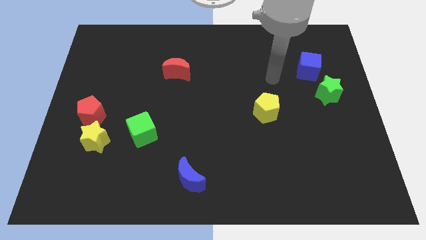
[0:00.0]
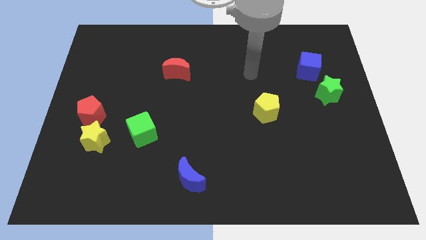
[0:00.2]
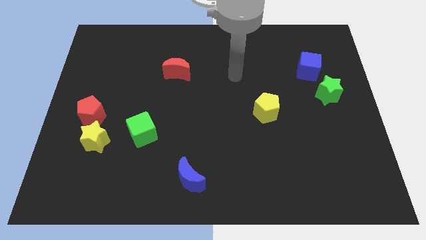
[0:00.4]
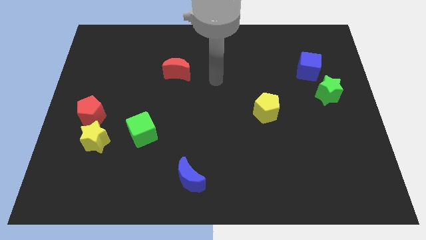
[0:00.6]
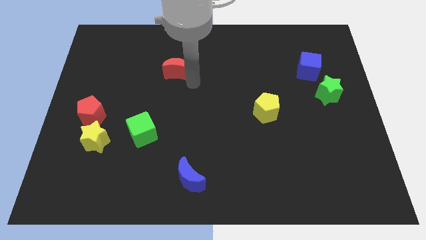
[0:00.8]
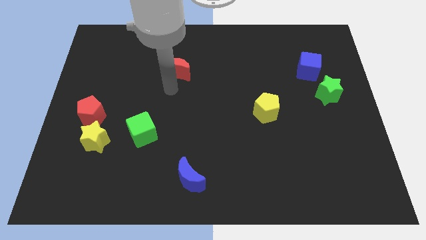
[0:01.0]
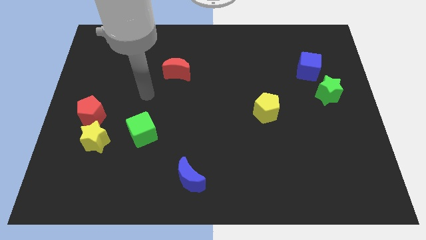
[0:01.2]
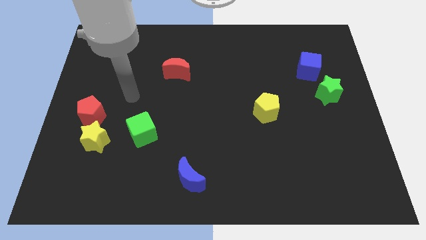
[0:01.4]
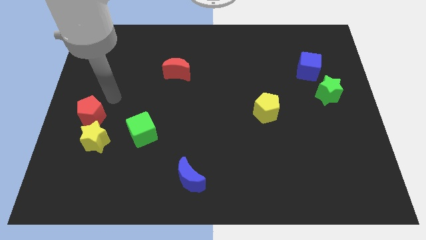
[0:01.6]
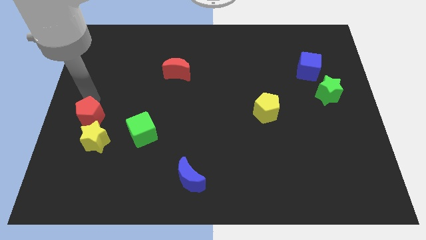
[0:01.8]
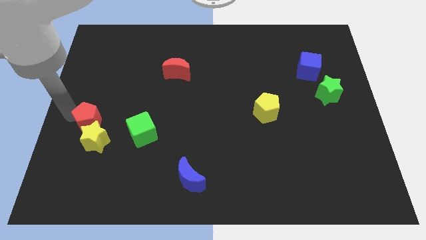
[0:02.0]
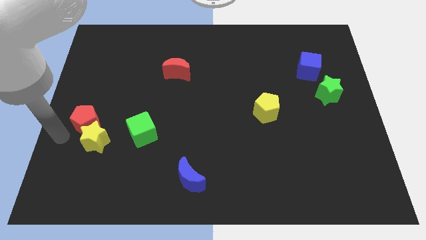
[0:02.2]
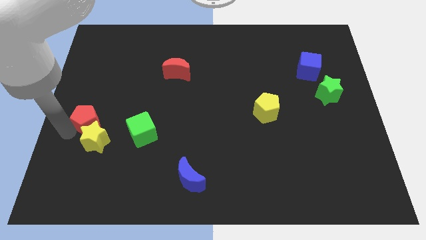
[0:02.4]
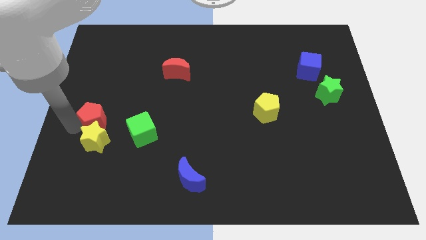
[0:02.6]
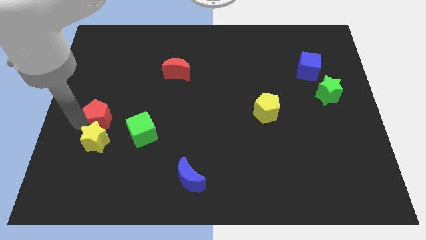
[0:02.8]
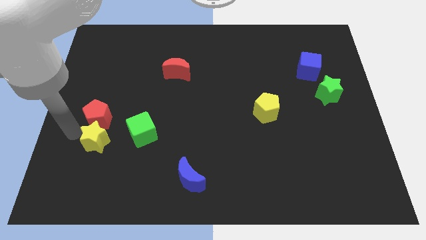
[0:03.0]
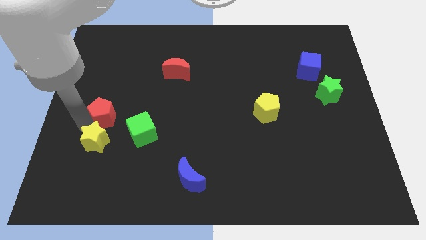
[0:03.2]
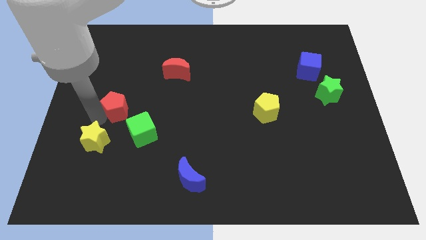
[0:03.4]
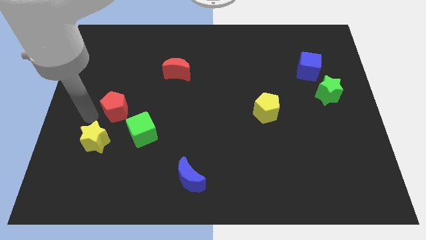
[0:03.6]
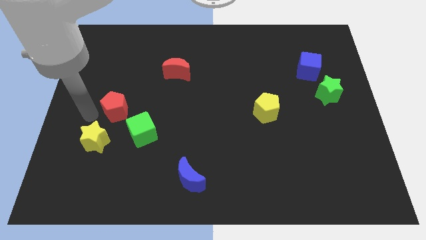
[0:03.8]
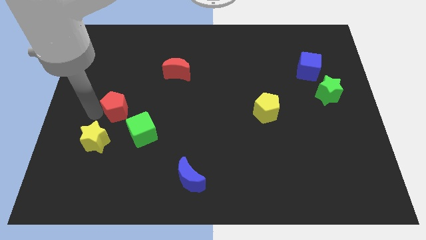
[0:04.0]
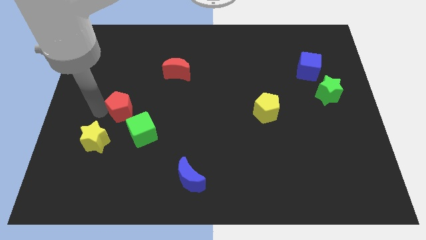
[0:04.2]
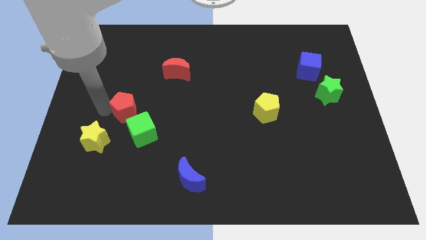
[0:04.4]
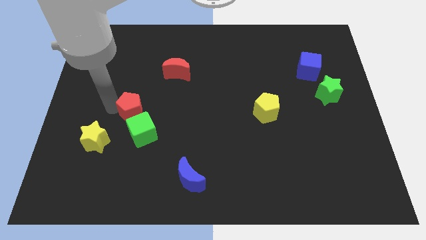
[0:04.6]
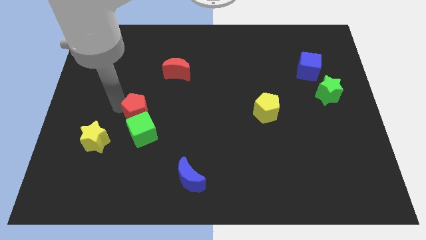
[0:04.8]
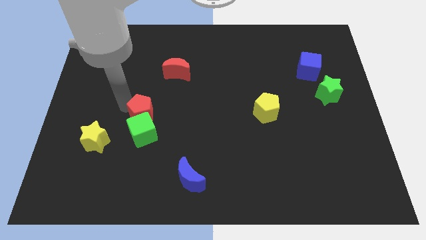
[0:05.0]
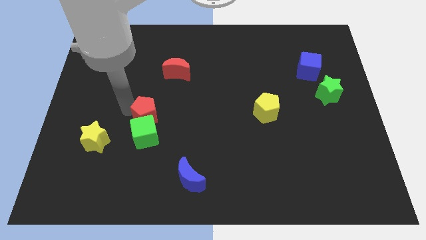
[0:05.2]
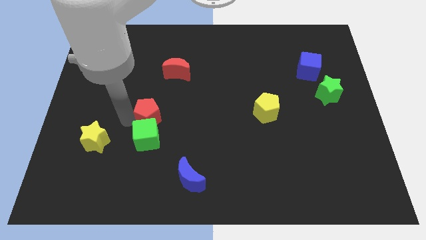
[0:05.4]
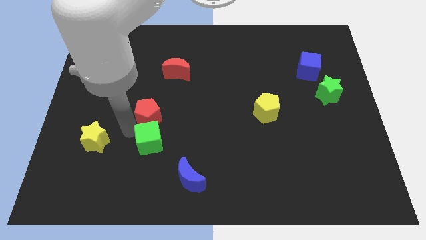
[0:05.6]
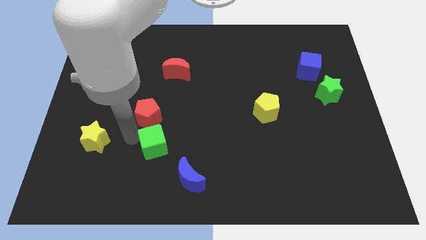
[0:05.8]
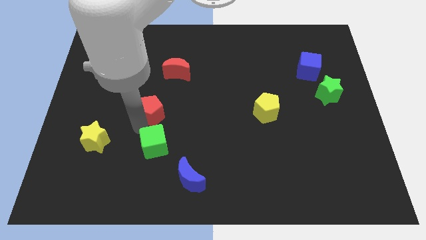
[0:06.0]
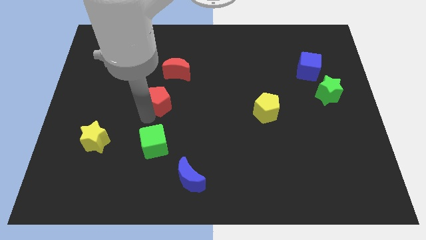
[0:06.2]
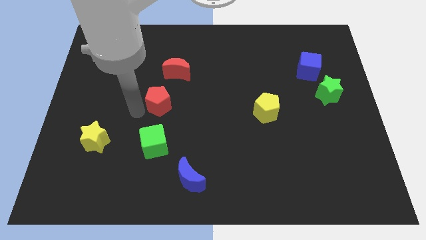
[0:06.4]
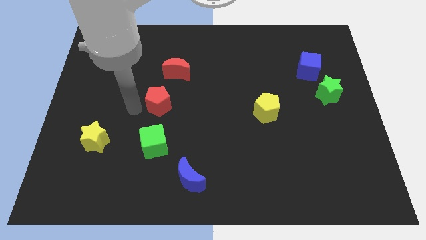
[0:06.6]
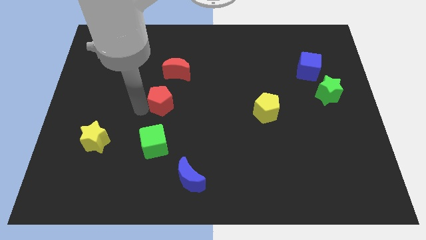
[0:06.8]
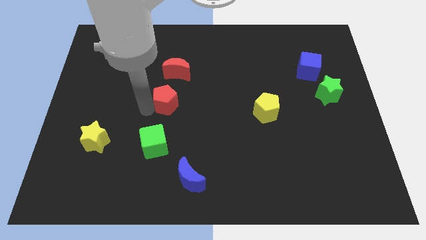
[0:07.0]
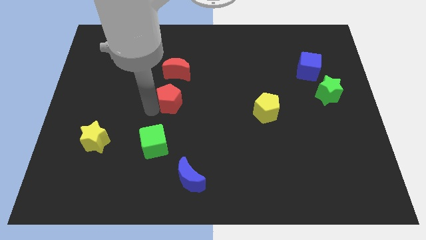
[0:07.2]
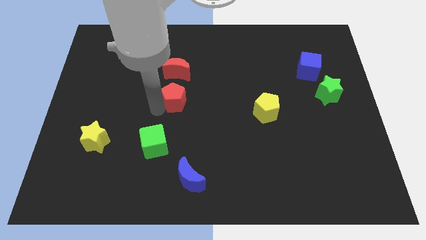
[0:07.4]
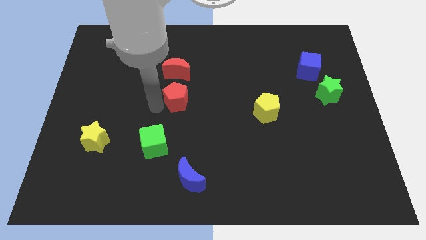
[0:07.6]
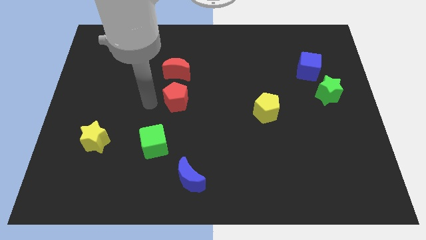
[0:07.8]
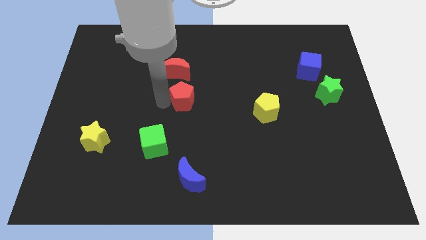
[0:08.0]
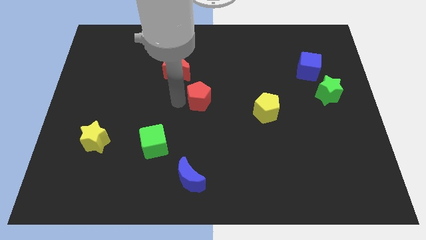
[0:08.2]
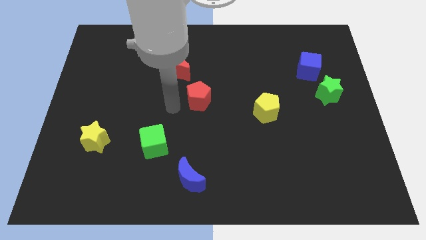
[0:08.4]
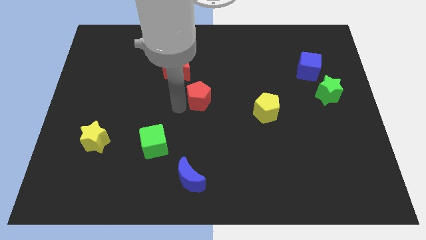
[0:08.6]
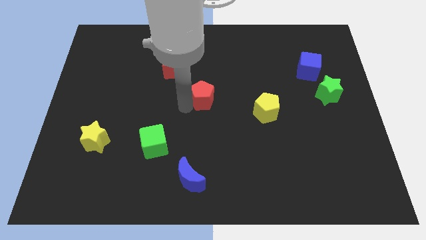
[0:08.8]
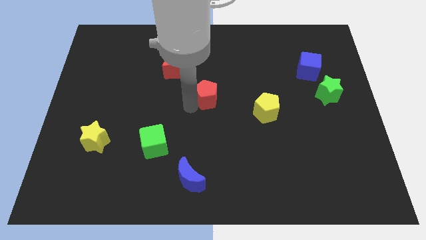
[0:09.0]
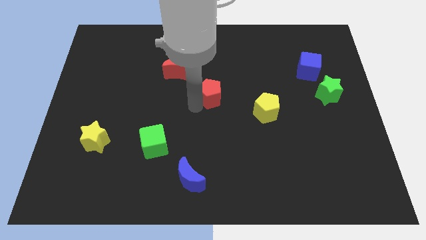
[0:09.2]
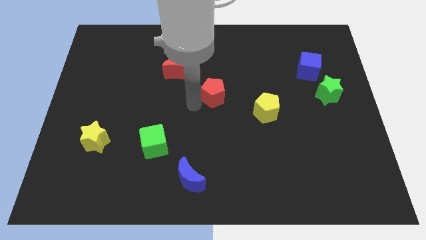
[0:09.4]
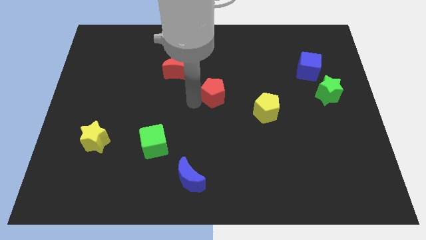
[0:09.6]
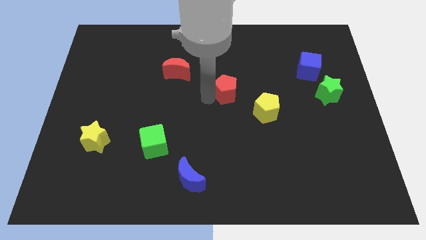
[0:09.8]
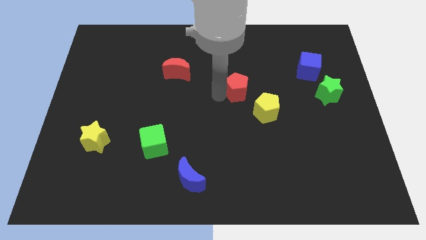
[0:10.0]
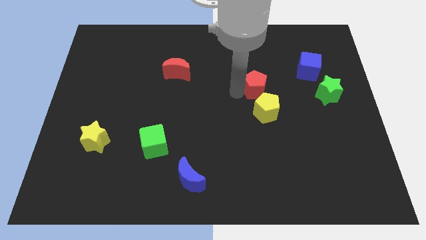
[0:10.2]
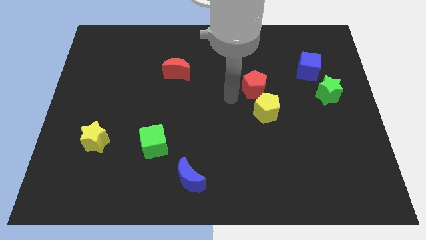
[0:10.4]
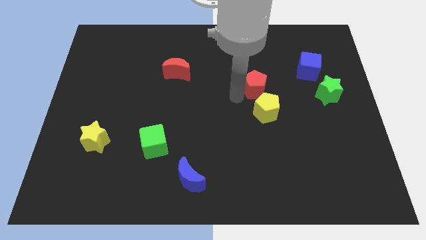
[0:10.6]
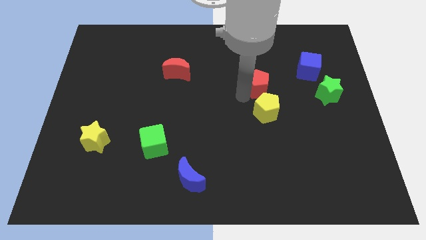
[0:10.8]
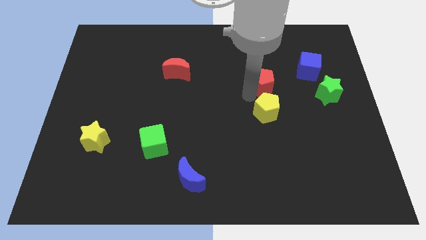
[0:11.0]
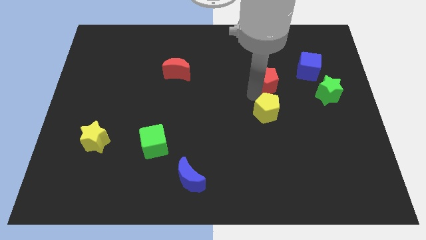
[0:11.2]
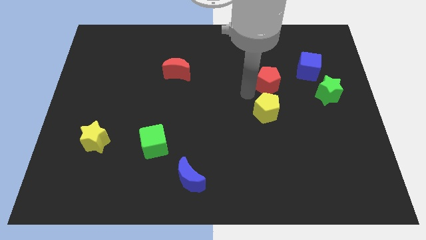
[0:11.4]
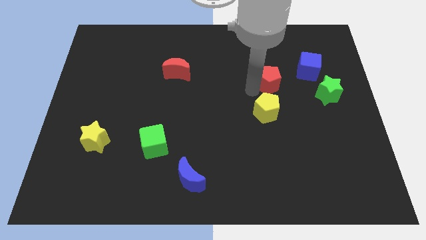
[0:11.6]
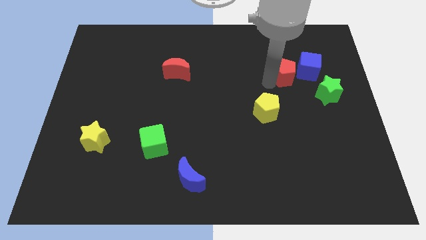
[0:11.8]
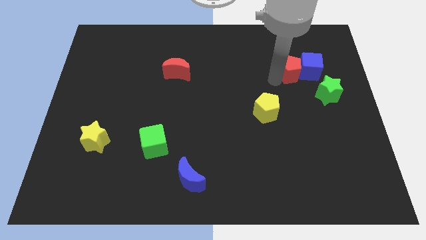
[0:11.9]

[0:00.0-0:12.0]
move the red pentagon to the blue cube

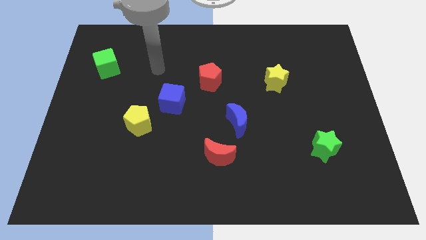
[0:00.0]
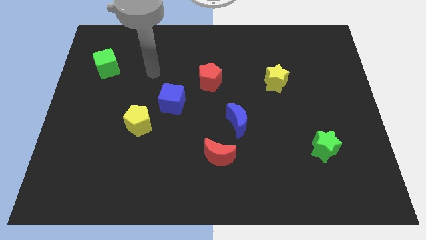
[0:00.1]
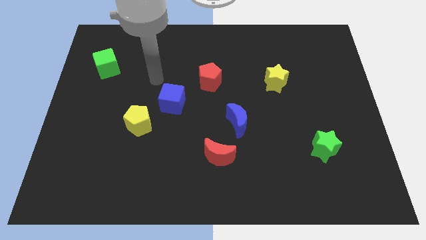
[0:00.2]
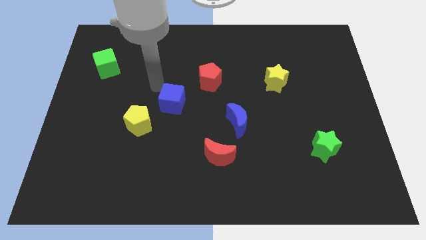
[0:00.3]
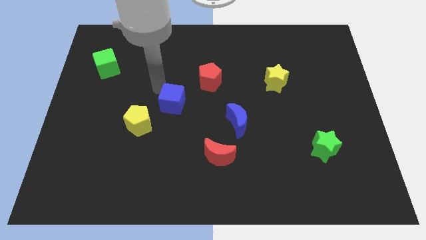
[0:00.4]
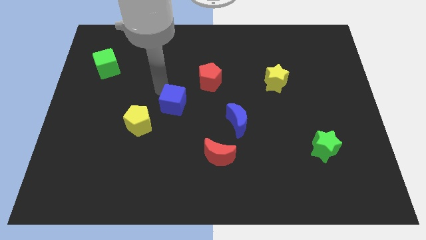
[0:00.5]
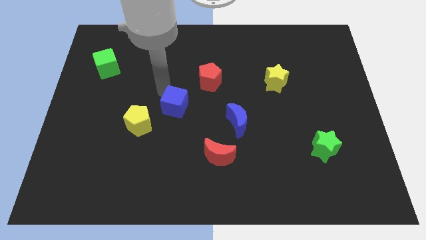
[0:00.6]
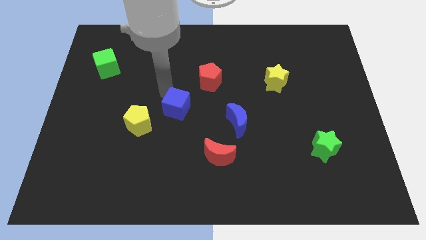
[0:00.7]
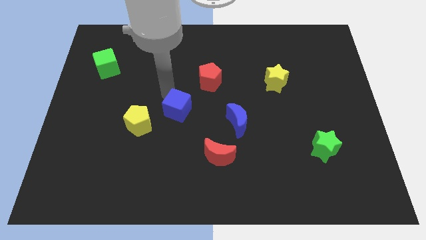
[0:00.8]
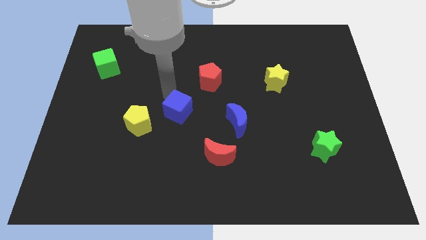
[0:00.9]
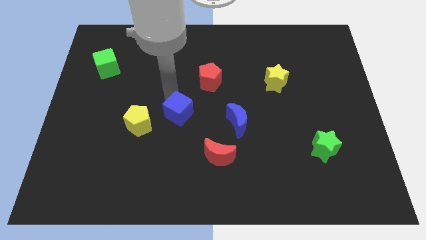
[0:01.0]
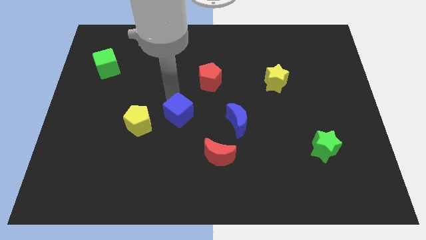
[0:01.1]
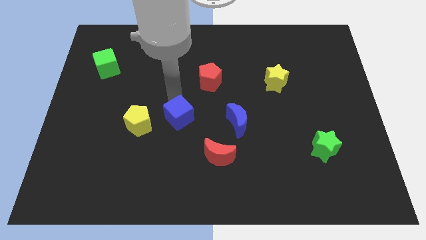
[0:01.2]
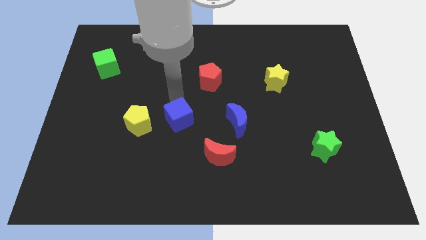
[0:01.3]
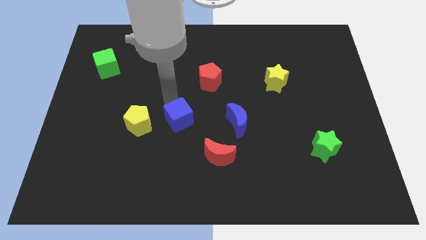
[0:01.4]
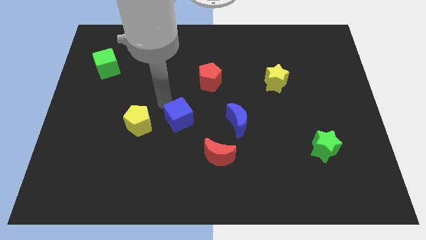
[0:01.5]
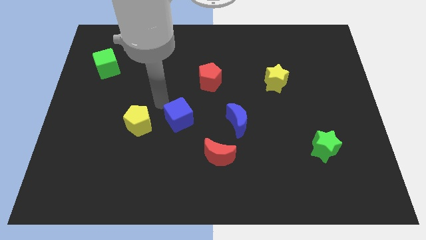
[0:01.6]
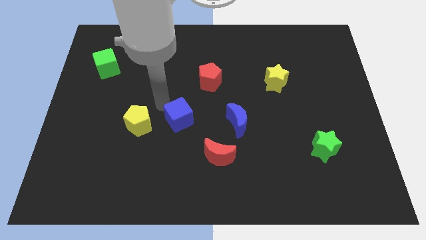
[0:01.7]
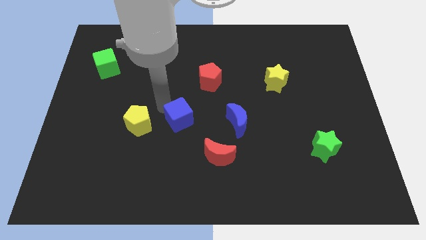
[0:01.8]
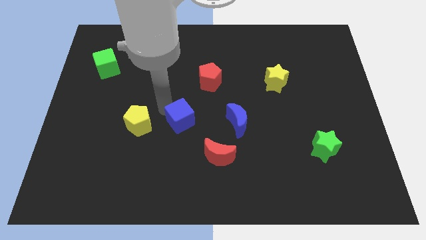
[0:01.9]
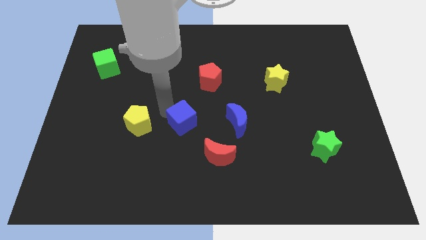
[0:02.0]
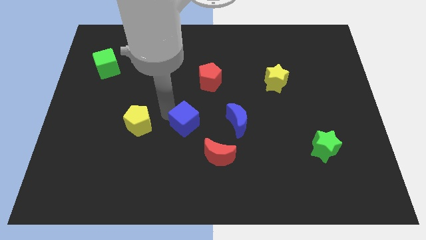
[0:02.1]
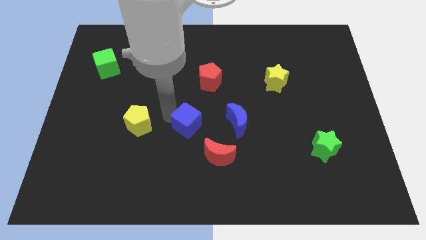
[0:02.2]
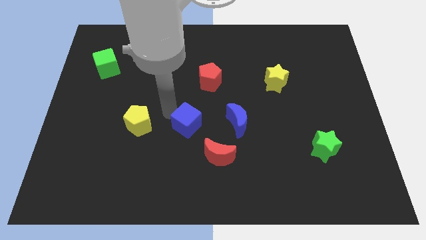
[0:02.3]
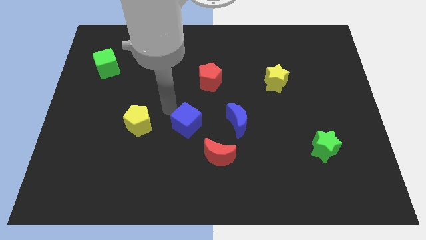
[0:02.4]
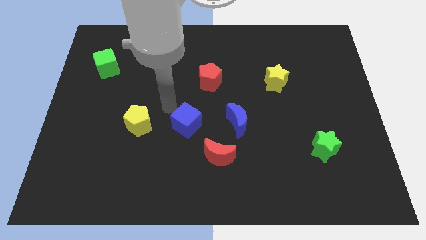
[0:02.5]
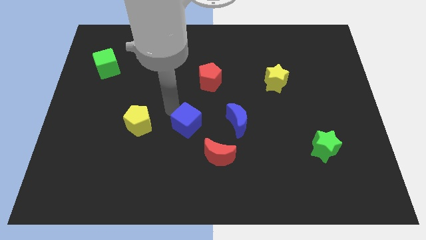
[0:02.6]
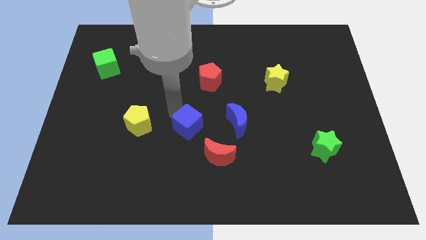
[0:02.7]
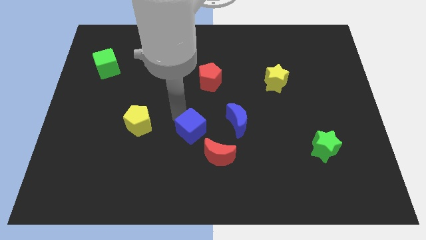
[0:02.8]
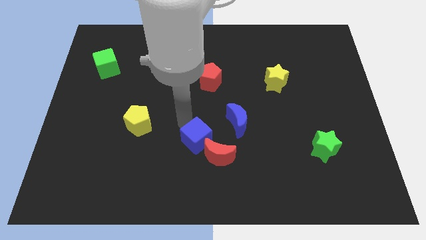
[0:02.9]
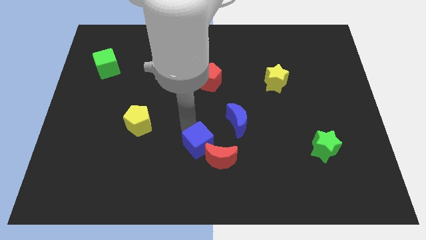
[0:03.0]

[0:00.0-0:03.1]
push the blue cube towards the red moon
